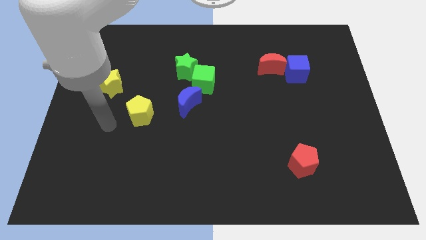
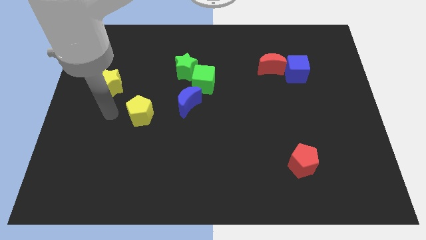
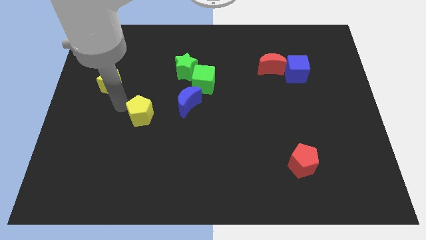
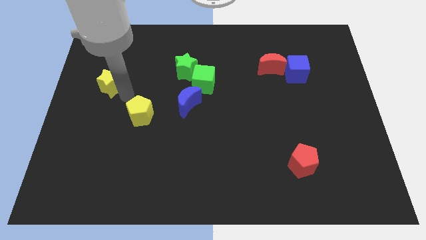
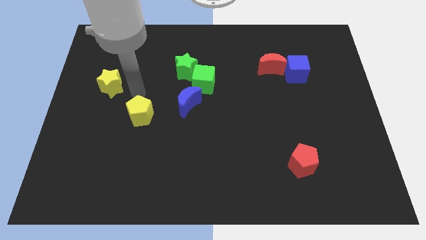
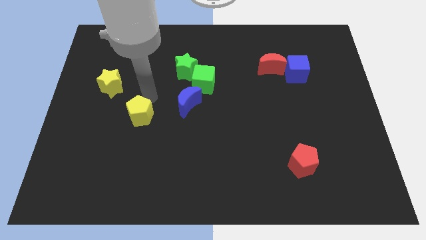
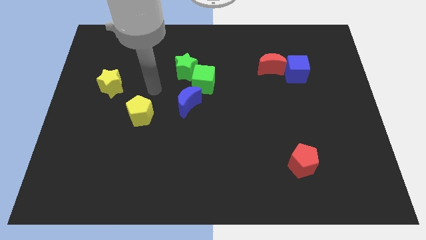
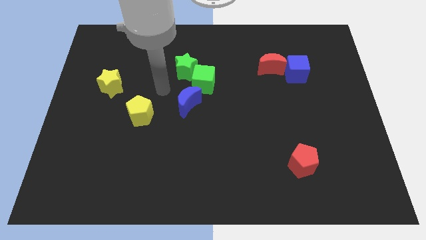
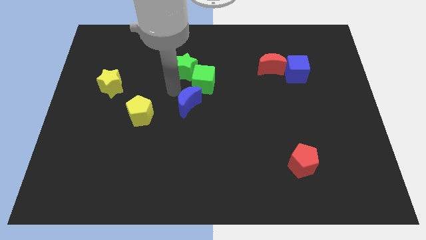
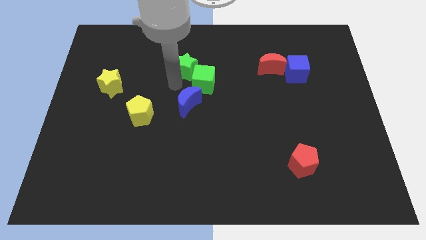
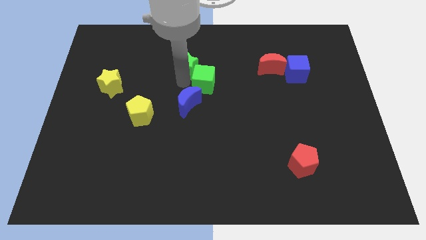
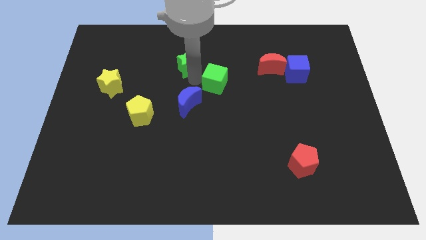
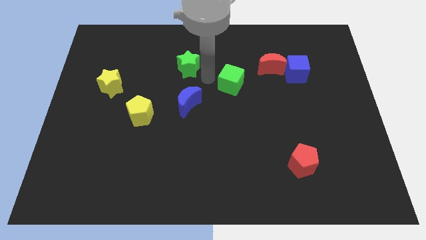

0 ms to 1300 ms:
separate the green star from the green cube

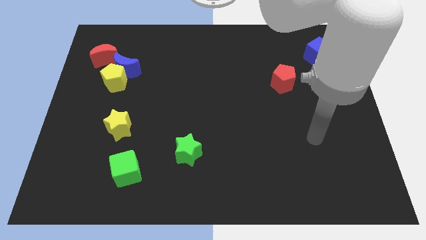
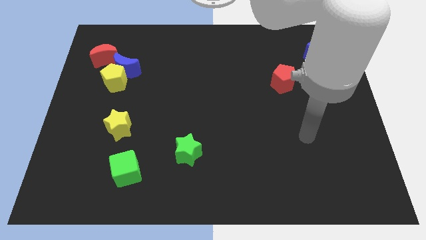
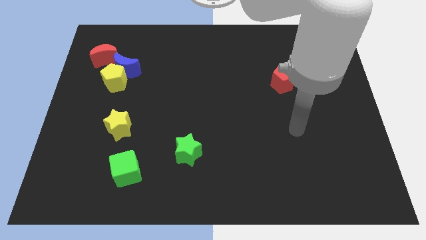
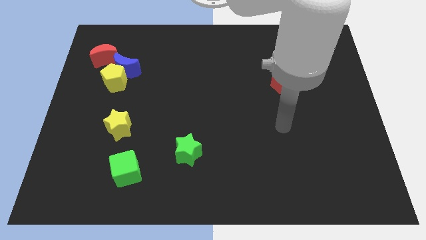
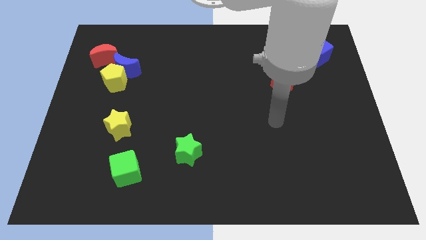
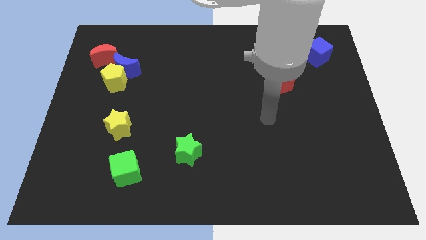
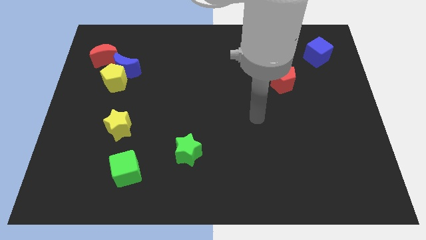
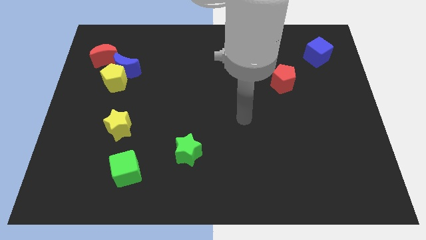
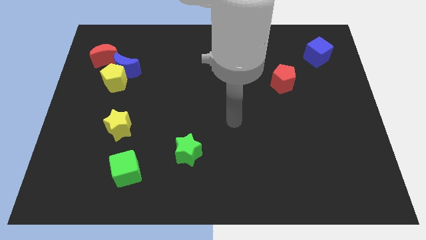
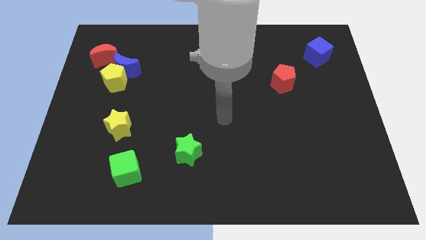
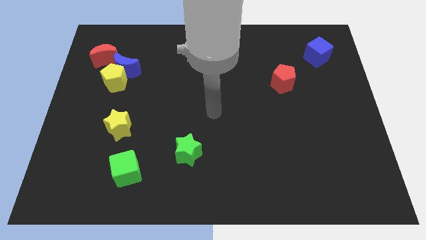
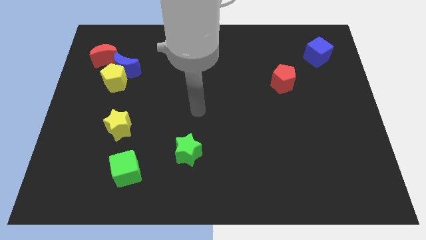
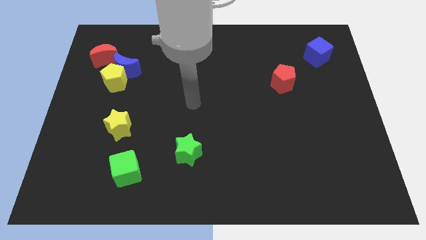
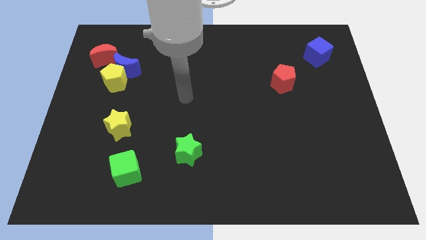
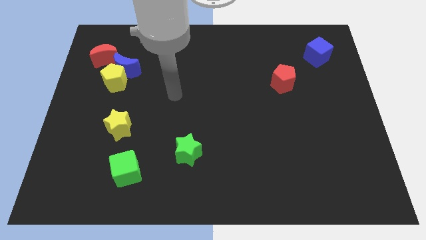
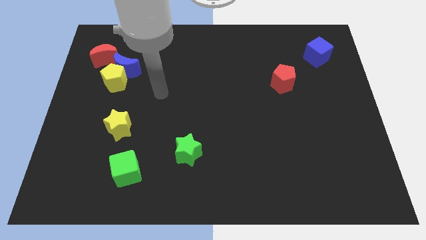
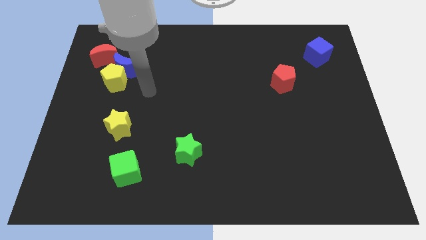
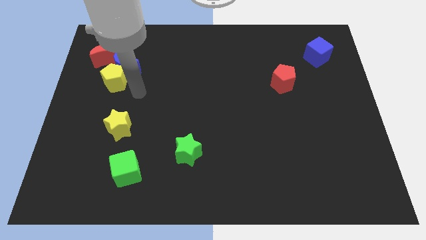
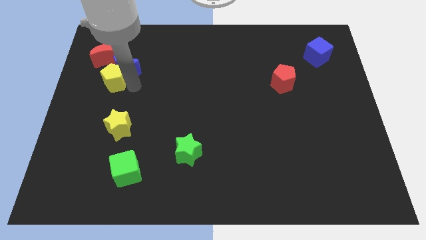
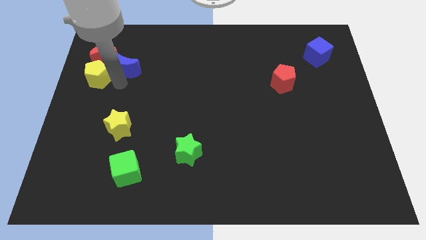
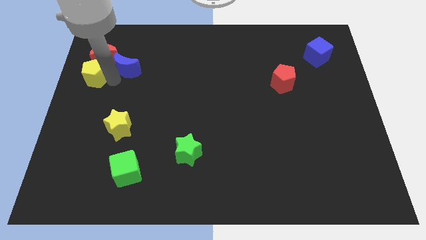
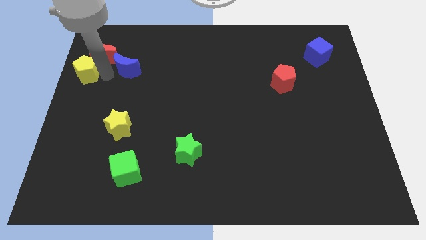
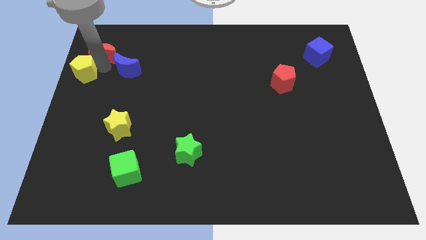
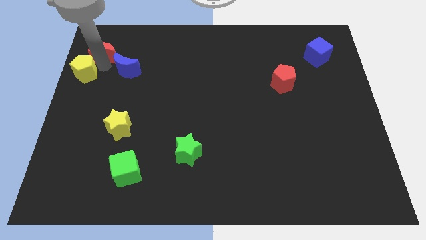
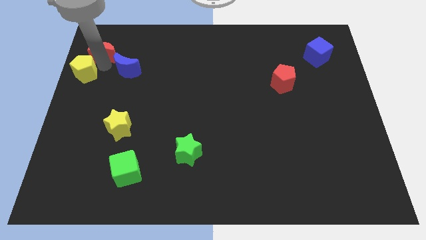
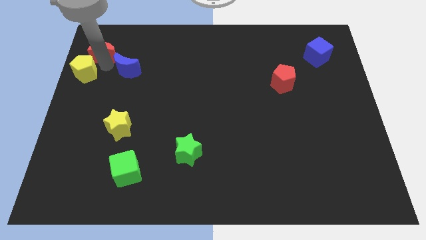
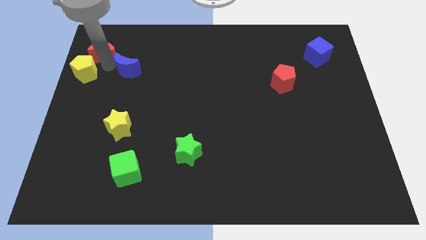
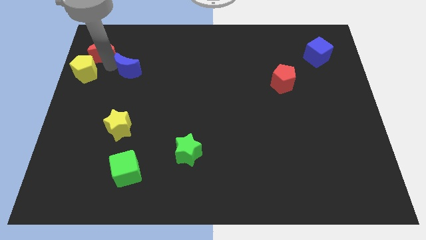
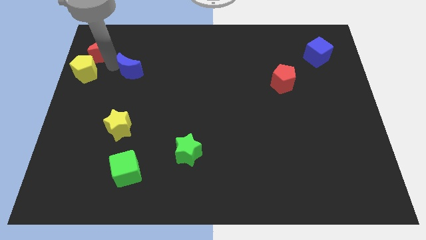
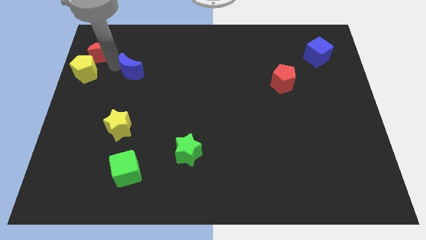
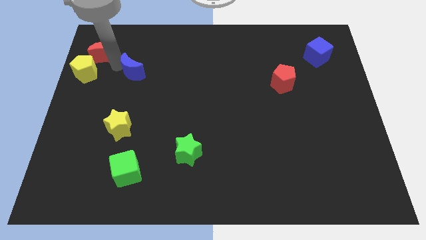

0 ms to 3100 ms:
move the blue moon away from the yellow pentagon and red moon

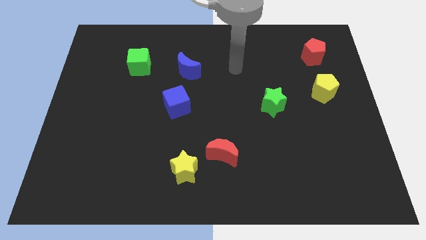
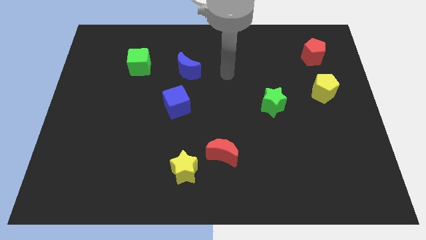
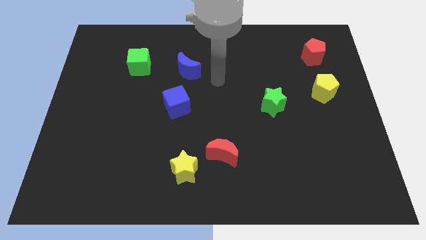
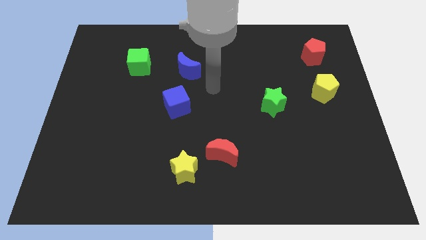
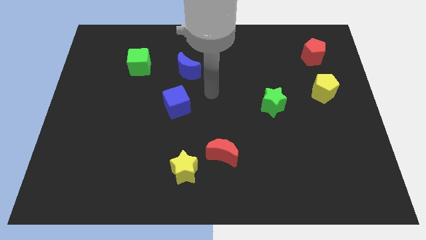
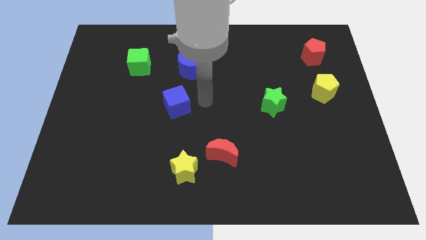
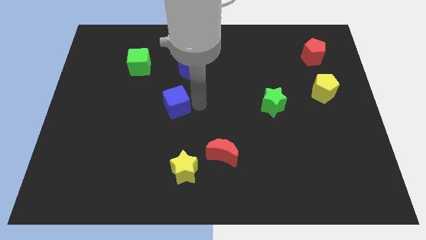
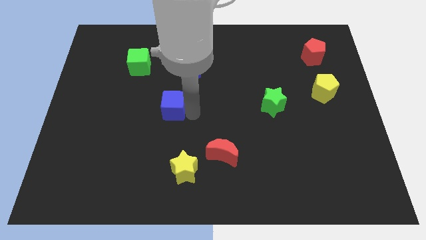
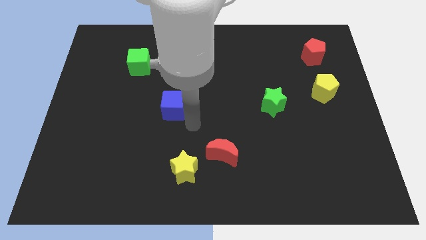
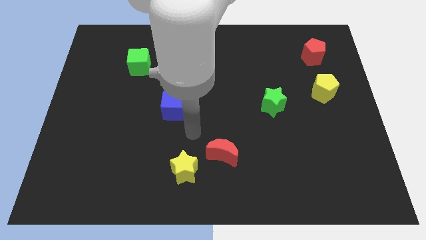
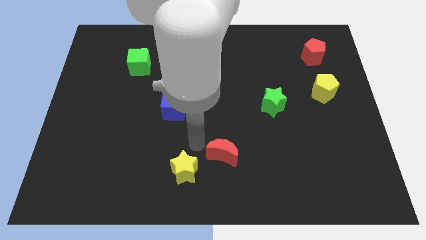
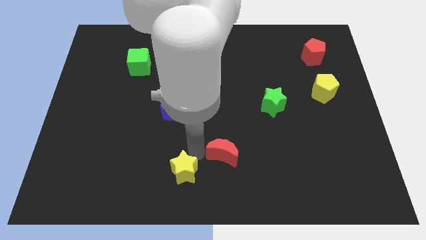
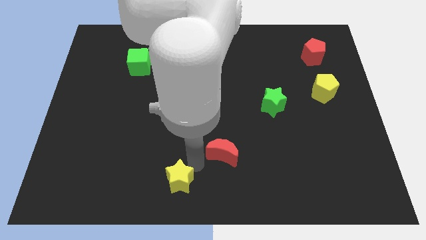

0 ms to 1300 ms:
move the red moon away from the yellow star

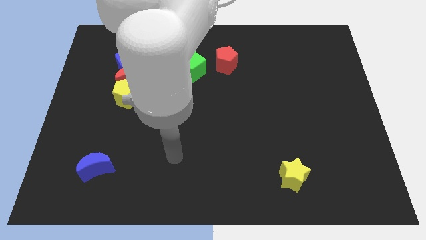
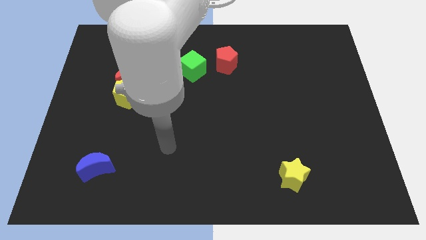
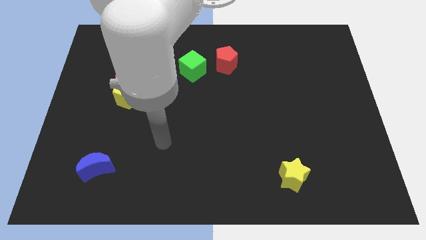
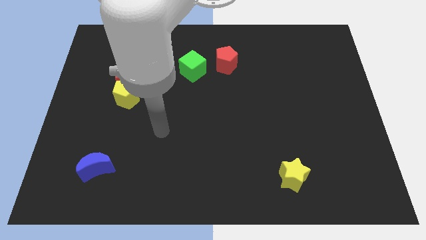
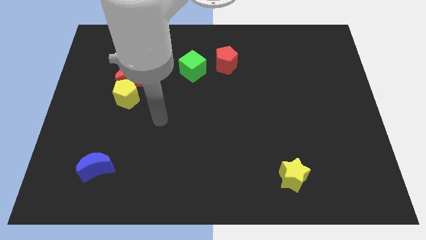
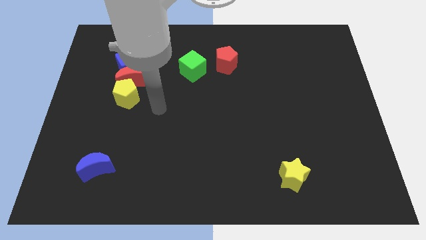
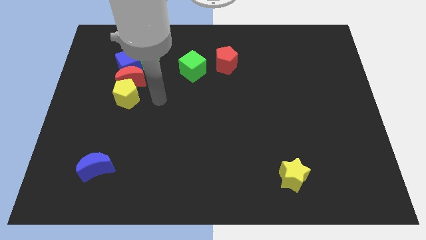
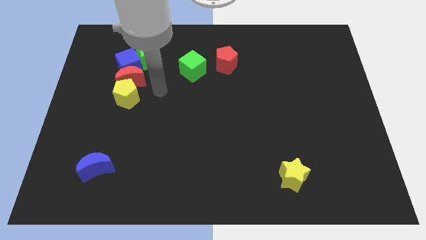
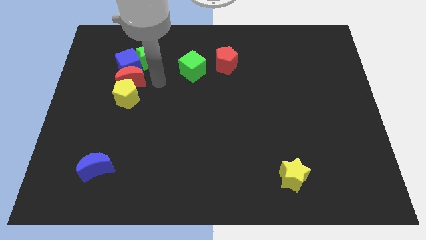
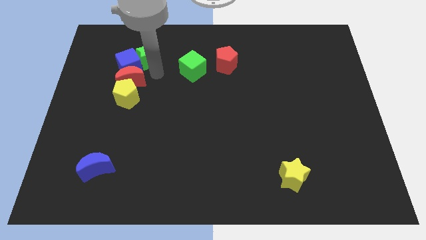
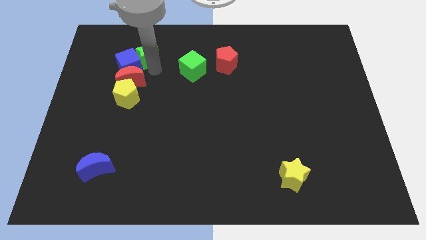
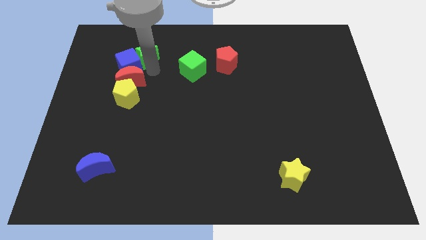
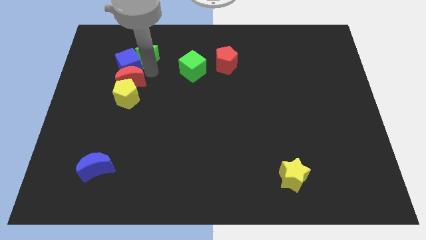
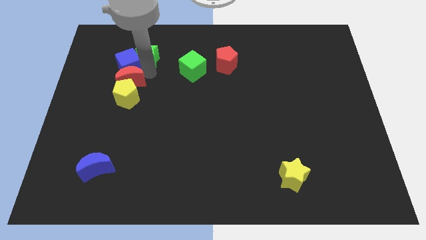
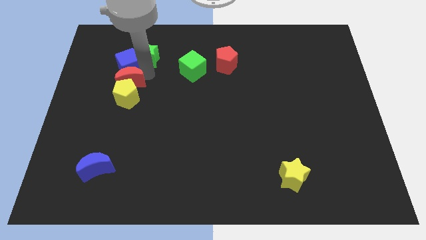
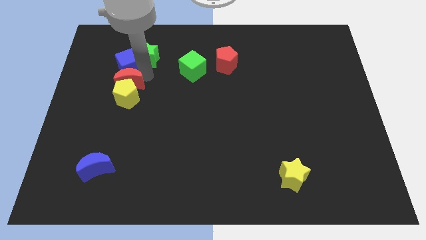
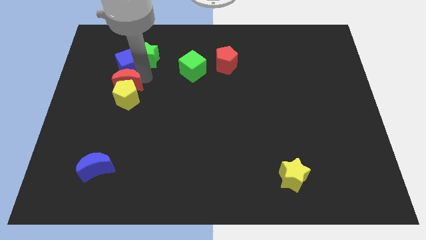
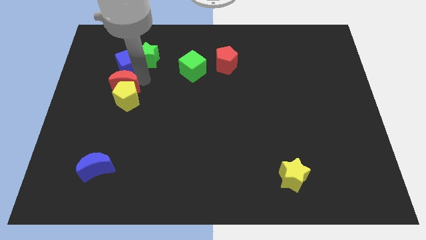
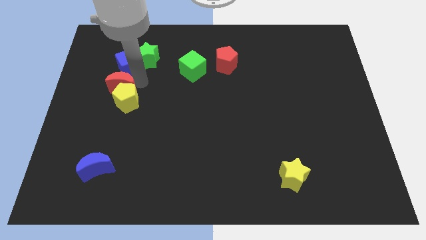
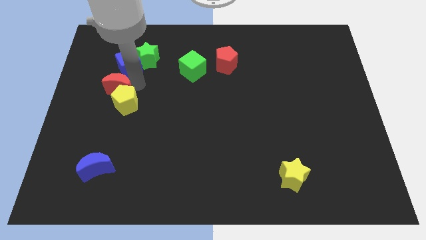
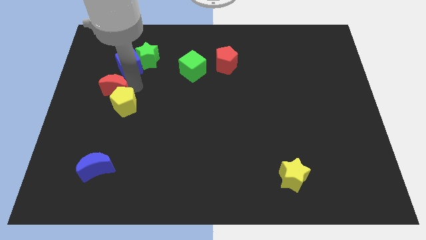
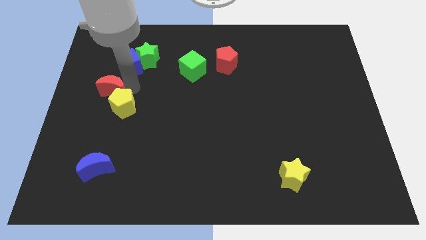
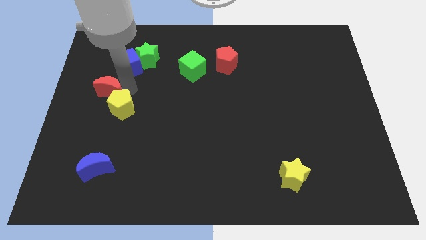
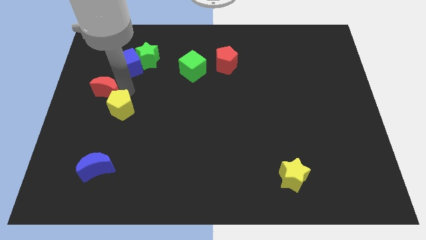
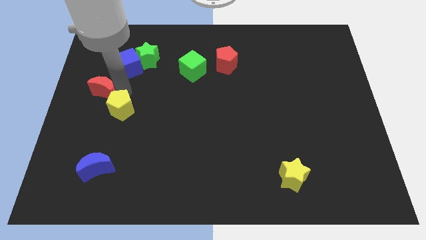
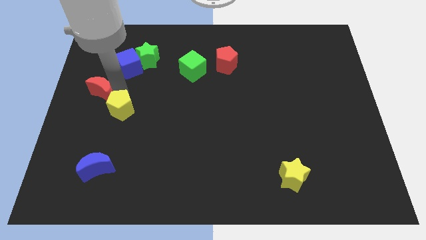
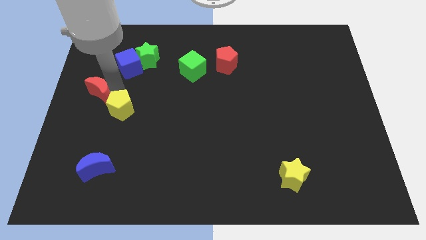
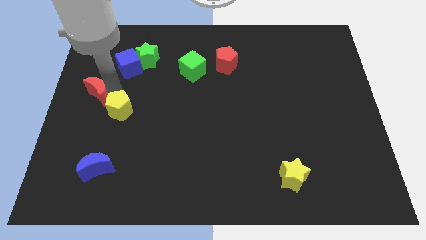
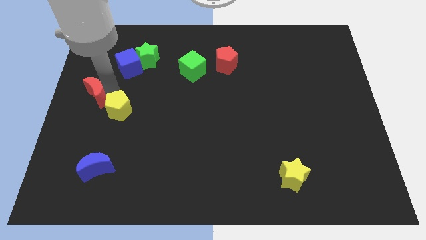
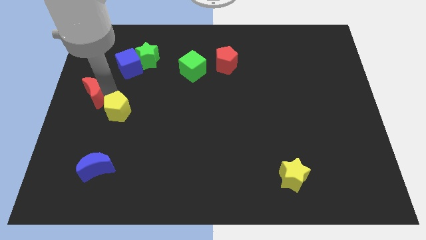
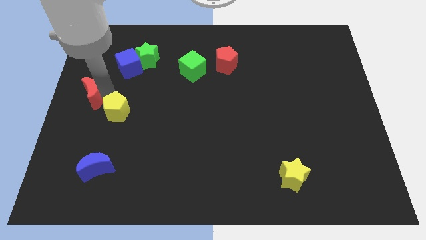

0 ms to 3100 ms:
separate the red moon from the blue cube, yellow pentagon, and green star

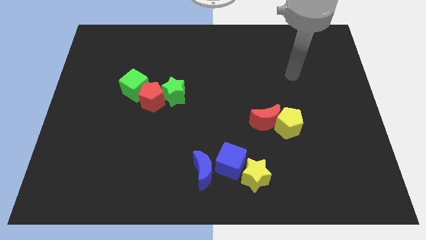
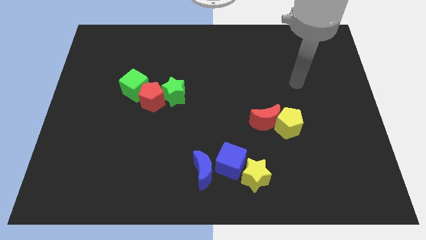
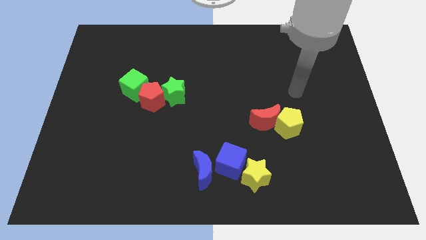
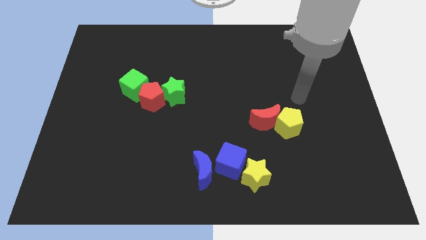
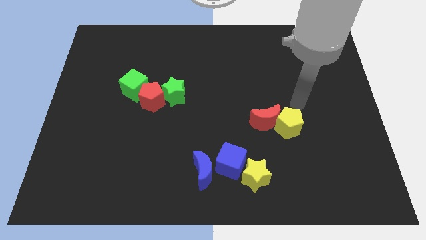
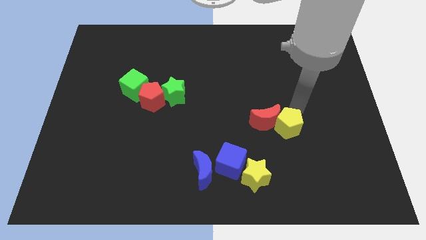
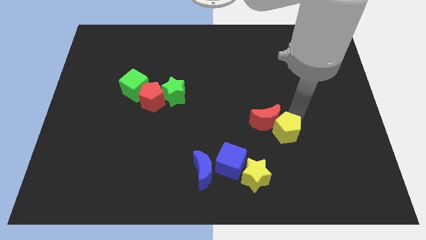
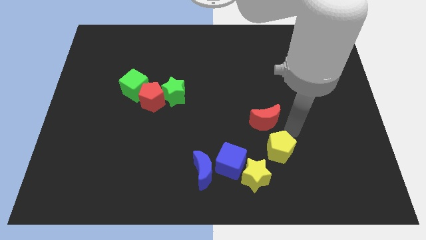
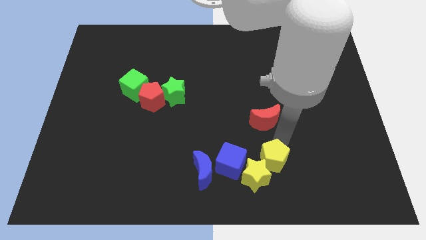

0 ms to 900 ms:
pull the red moon apart from the yellow pentagon
